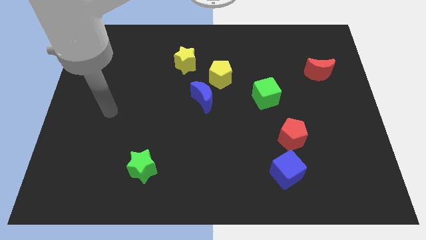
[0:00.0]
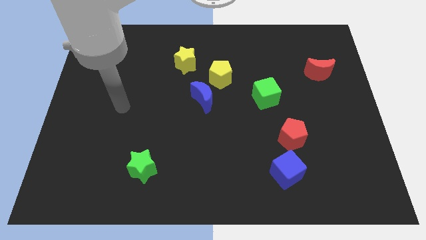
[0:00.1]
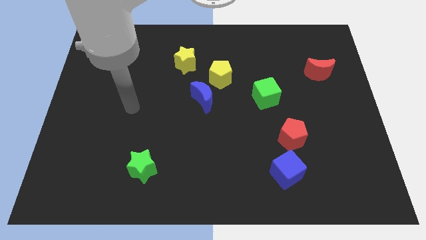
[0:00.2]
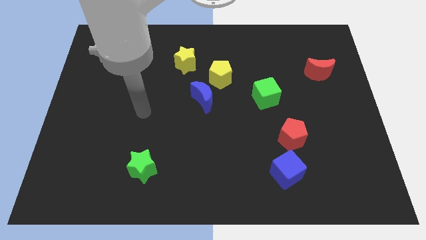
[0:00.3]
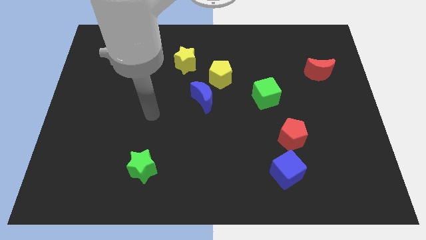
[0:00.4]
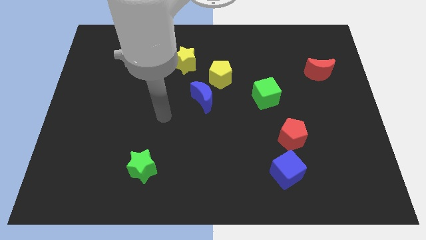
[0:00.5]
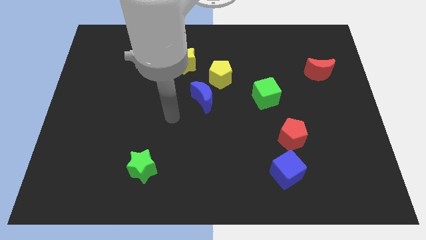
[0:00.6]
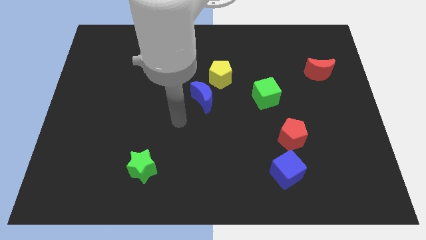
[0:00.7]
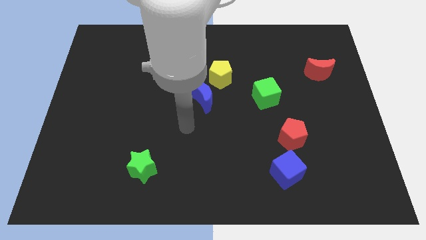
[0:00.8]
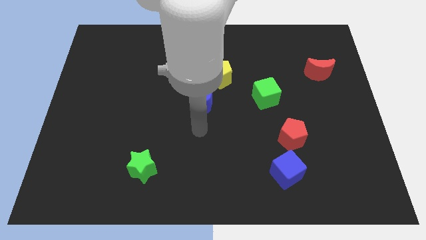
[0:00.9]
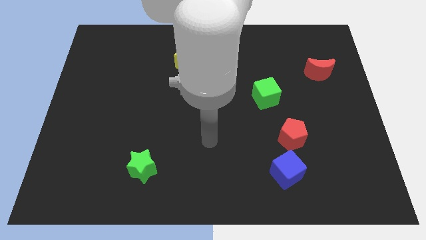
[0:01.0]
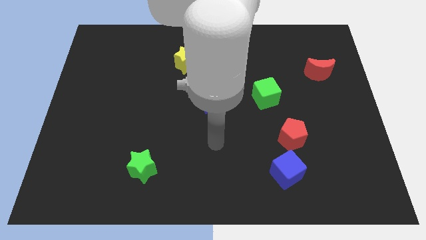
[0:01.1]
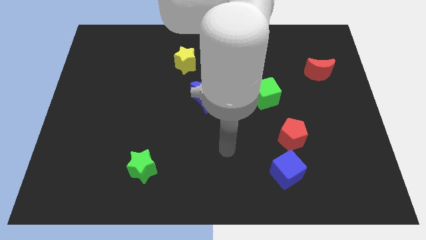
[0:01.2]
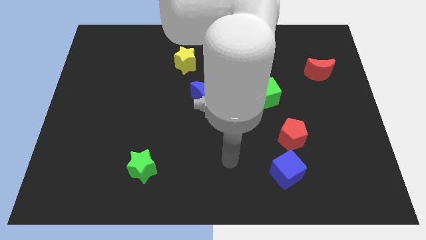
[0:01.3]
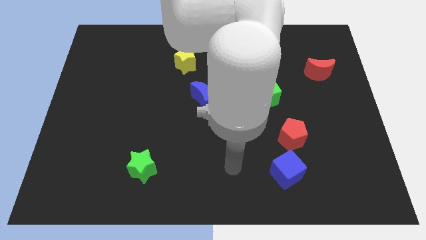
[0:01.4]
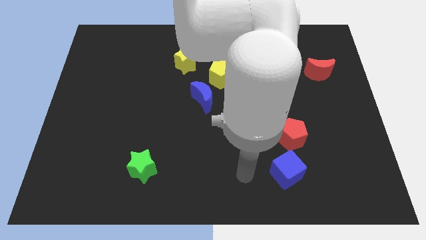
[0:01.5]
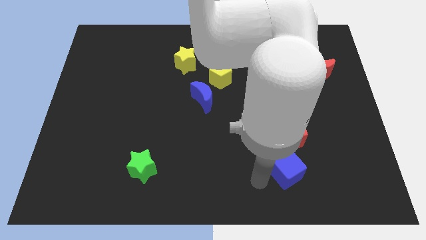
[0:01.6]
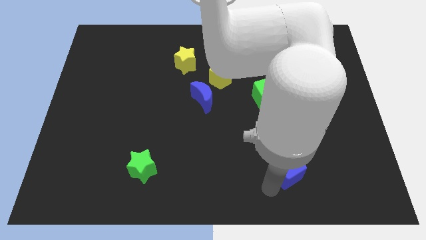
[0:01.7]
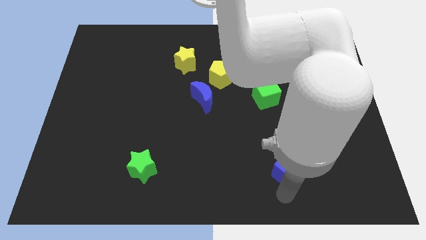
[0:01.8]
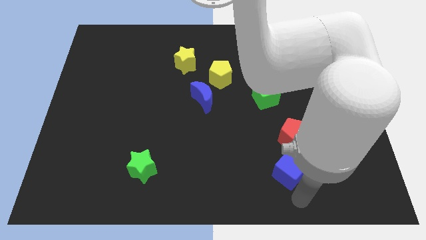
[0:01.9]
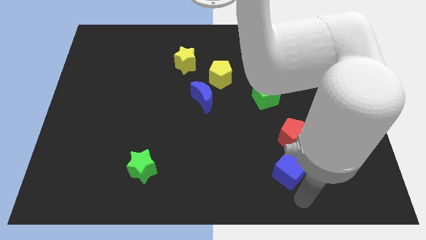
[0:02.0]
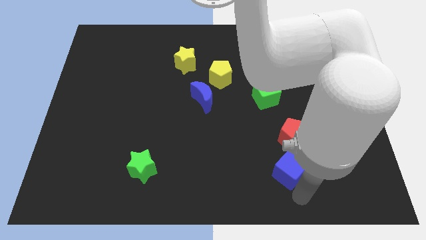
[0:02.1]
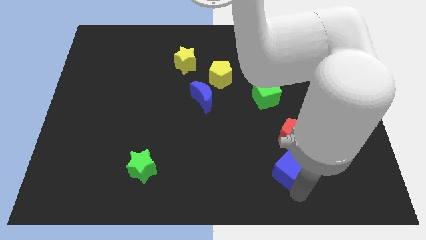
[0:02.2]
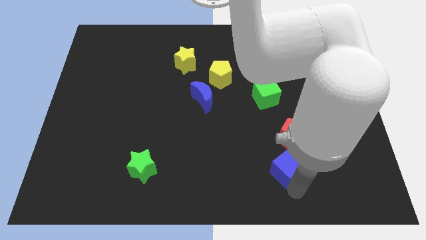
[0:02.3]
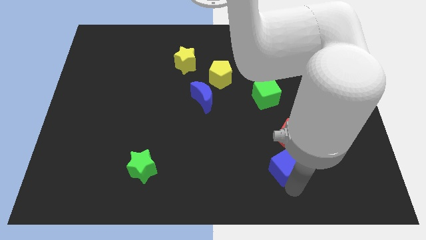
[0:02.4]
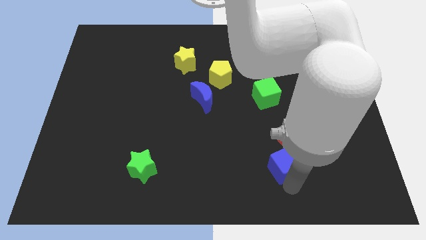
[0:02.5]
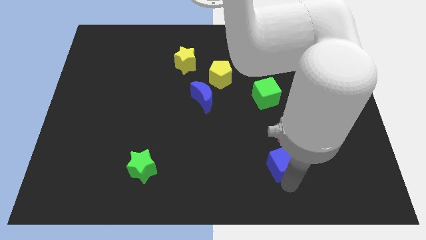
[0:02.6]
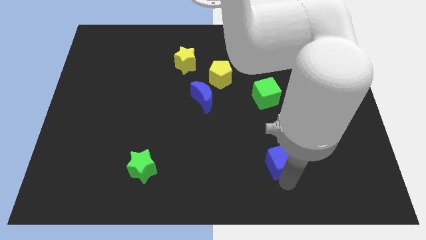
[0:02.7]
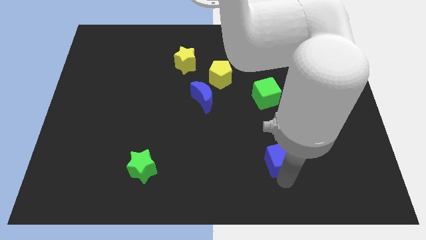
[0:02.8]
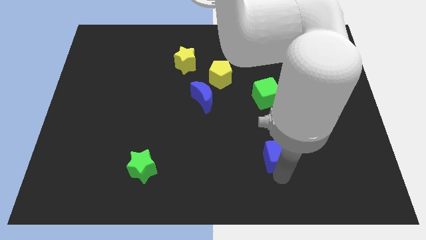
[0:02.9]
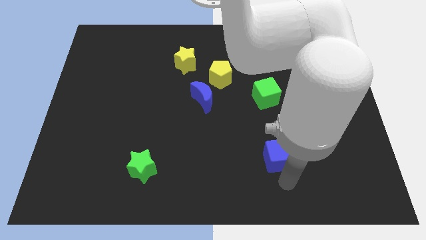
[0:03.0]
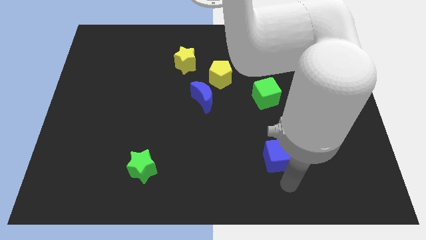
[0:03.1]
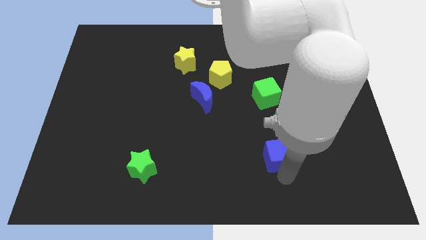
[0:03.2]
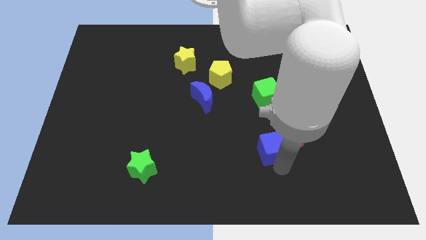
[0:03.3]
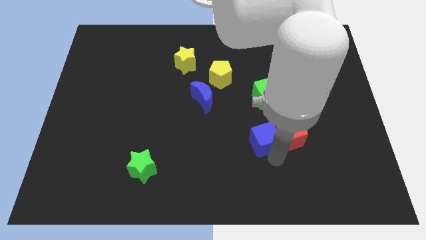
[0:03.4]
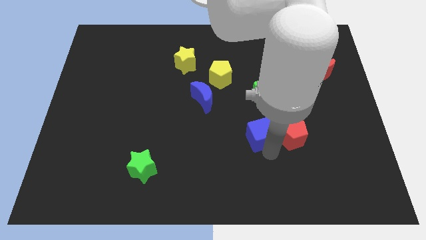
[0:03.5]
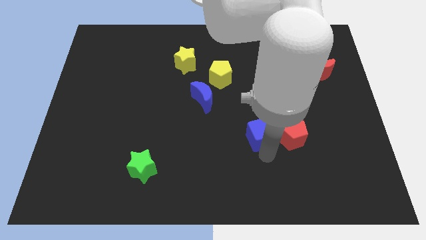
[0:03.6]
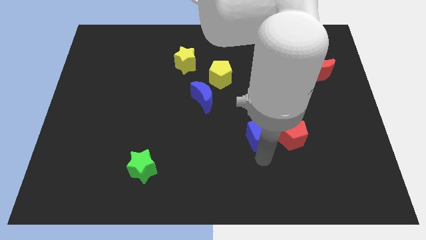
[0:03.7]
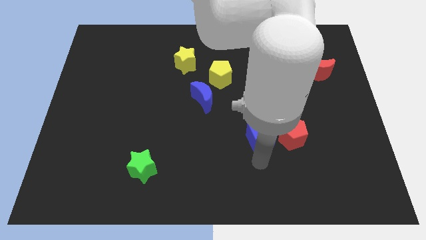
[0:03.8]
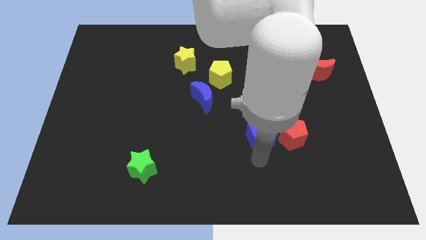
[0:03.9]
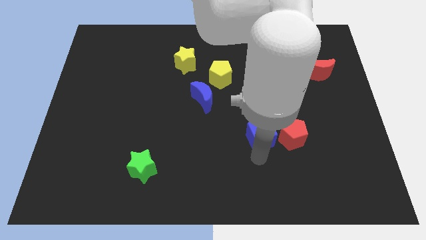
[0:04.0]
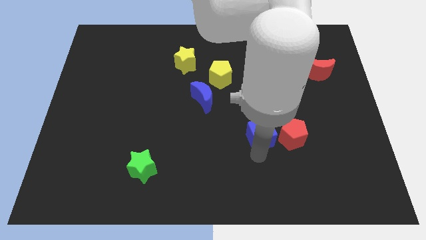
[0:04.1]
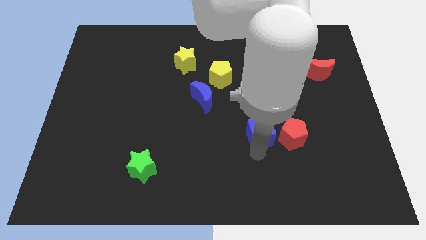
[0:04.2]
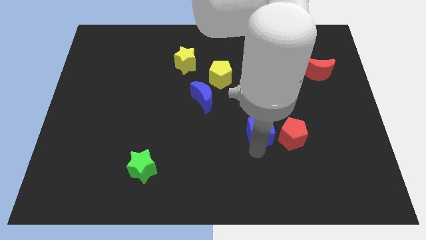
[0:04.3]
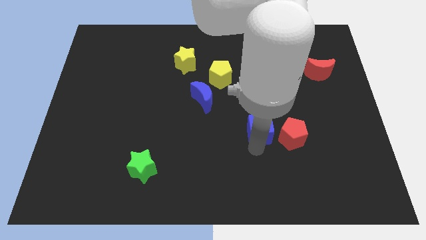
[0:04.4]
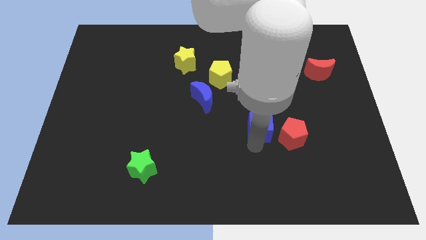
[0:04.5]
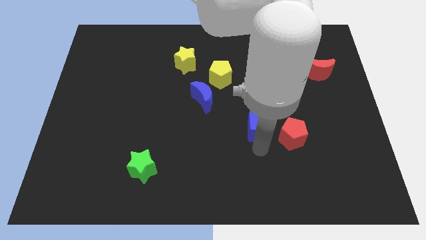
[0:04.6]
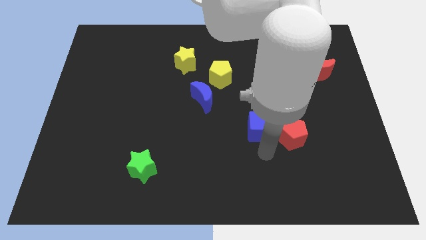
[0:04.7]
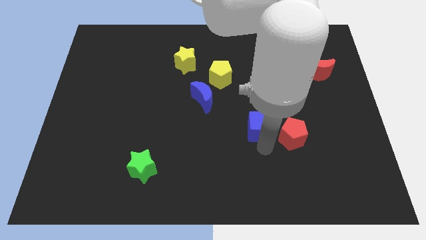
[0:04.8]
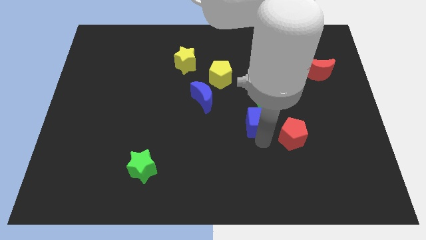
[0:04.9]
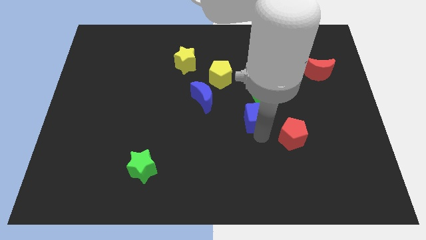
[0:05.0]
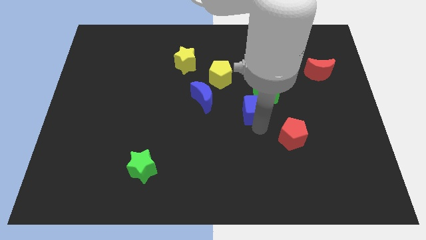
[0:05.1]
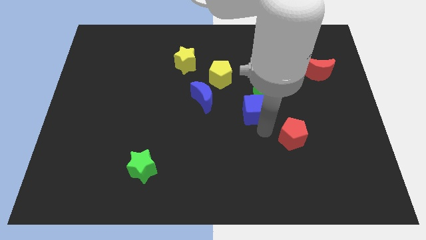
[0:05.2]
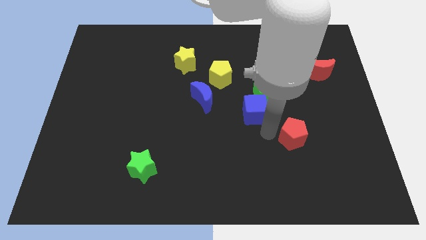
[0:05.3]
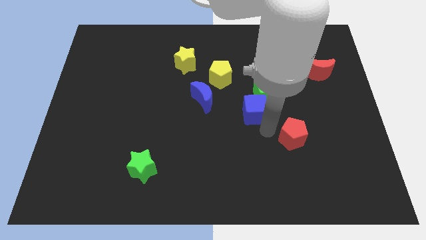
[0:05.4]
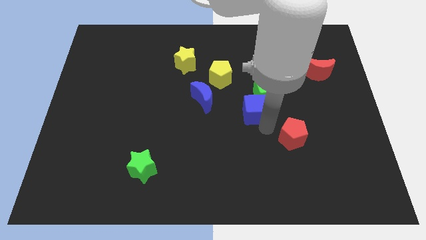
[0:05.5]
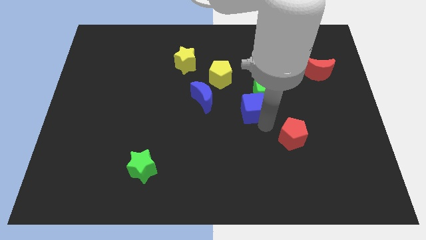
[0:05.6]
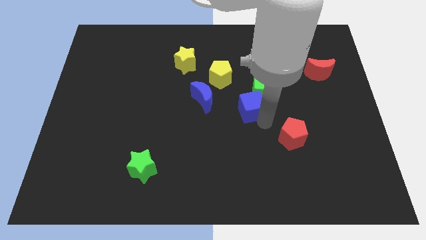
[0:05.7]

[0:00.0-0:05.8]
slide the blue cube to the bottom right side of the yellow pentagon

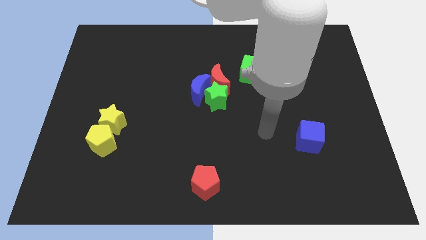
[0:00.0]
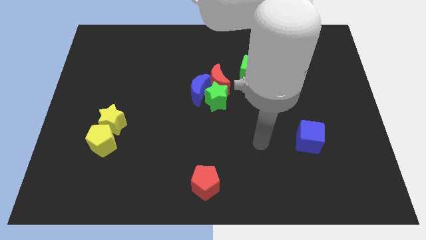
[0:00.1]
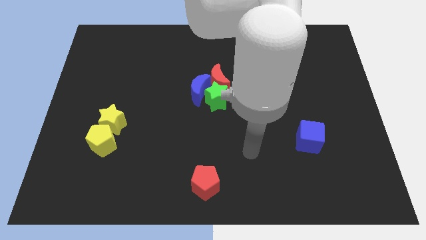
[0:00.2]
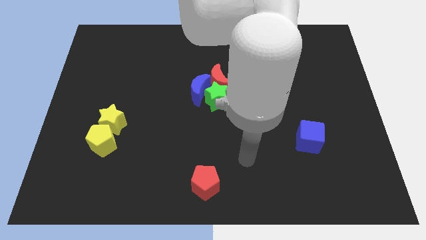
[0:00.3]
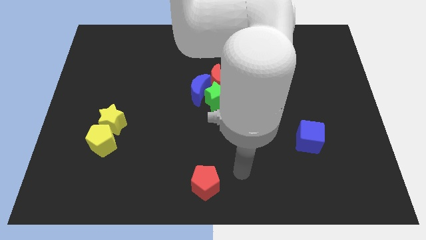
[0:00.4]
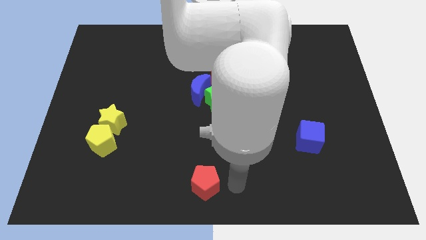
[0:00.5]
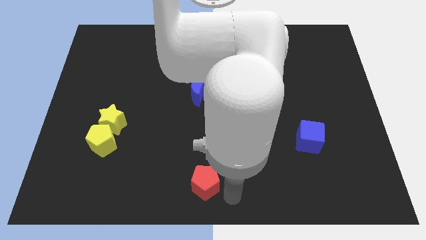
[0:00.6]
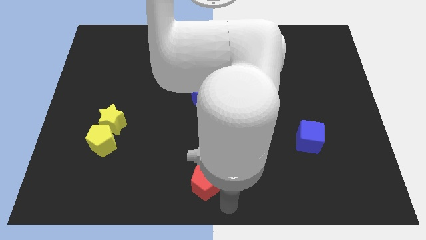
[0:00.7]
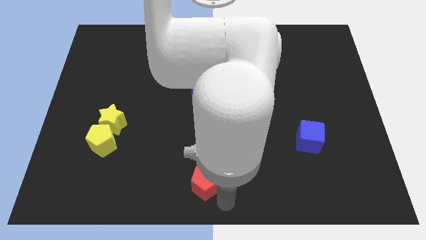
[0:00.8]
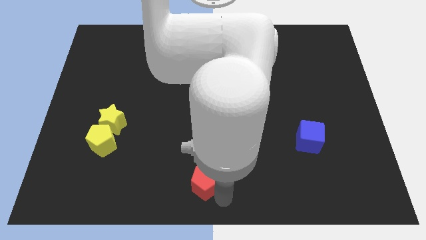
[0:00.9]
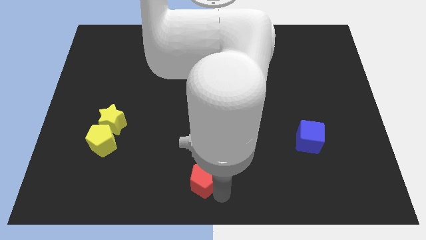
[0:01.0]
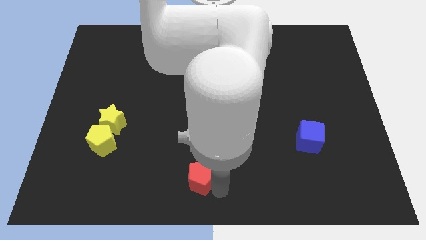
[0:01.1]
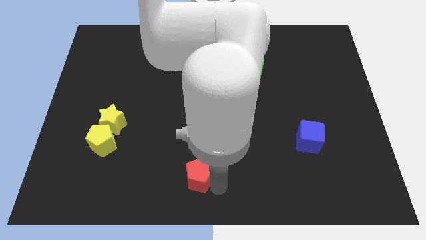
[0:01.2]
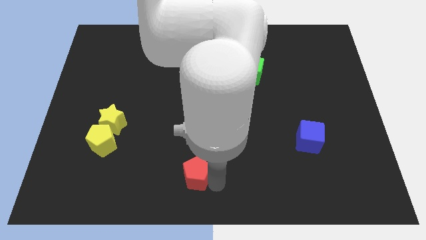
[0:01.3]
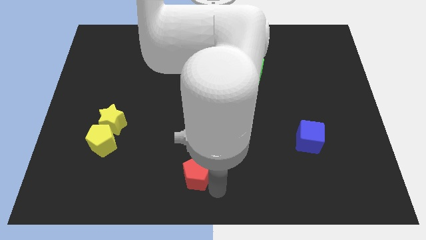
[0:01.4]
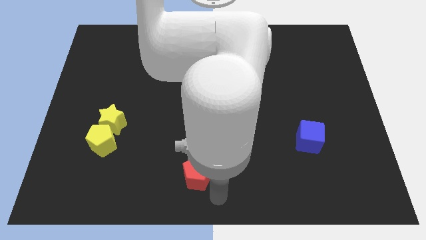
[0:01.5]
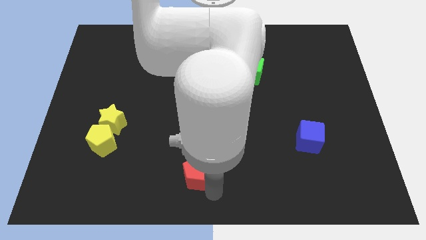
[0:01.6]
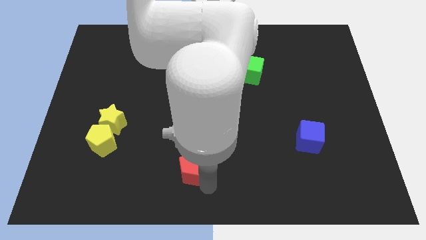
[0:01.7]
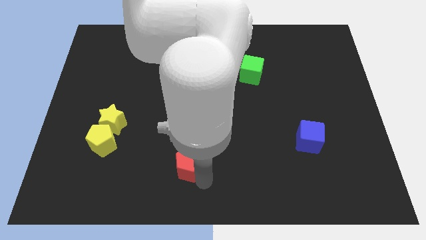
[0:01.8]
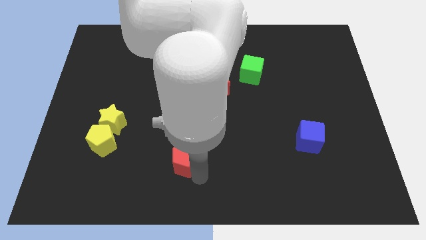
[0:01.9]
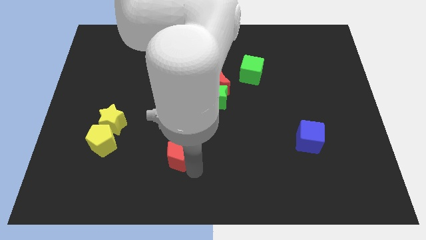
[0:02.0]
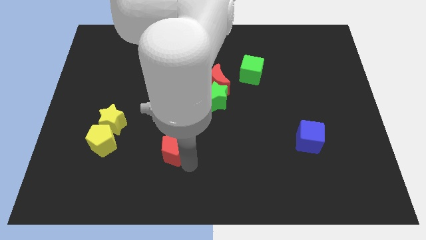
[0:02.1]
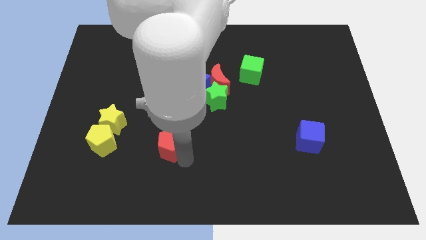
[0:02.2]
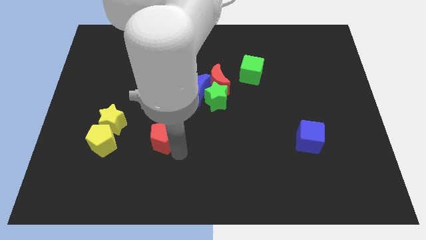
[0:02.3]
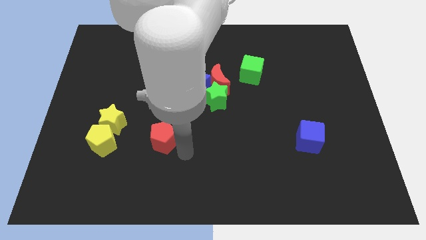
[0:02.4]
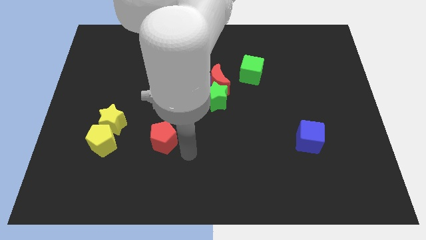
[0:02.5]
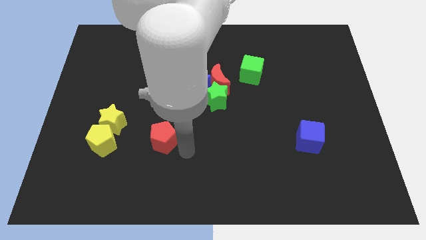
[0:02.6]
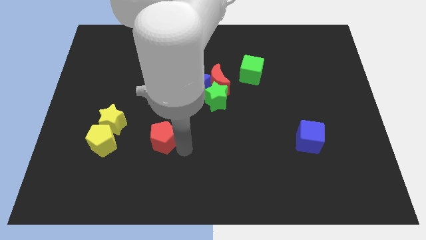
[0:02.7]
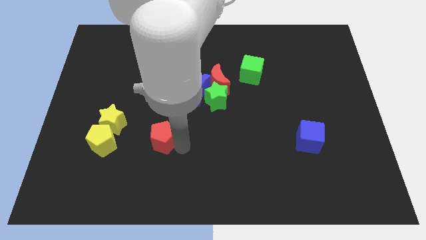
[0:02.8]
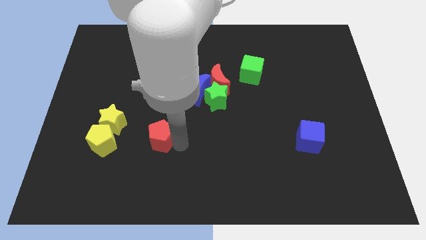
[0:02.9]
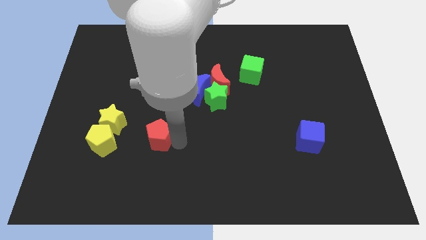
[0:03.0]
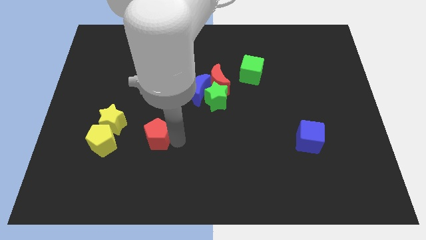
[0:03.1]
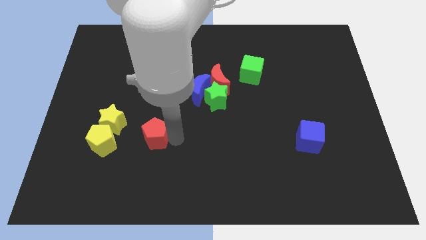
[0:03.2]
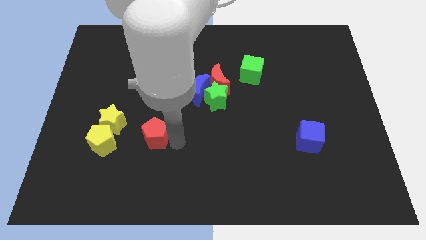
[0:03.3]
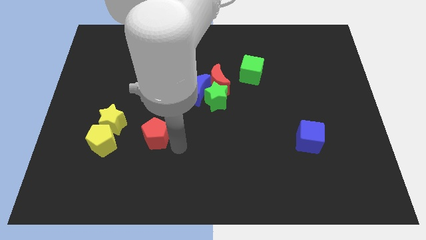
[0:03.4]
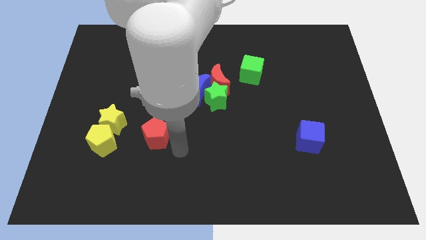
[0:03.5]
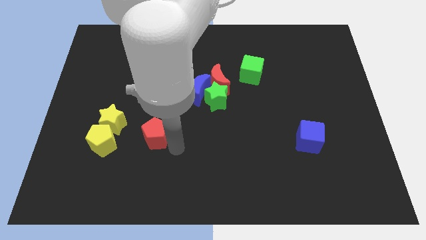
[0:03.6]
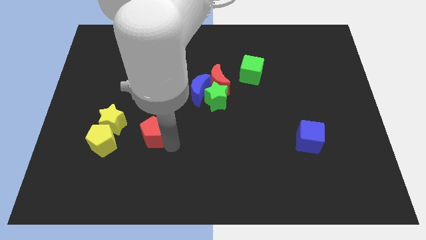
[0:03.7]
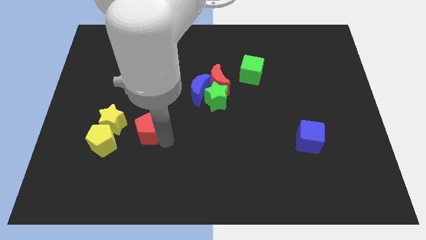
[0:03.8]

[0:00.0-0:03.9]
put the red pentagon to the top right side of the yellow pentagon
